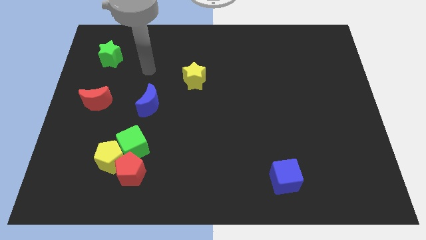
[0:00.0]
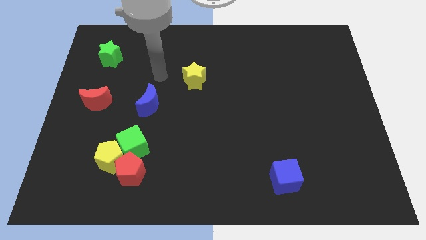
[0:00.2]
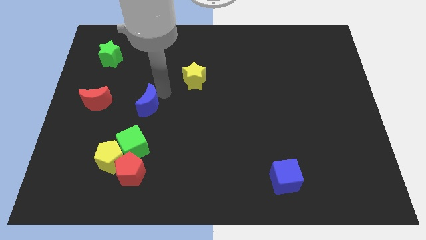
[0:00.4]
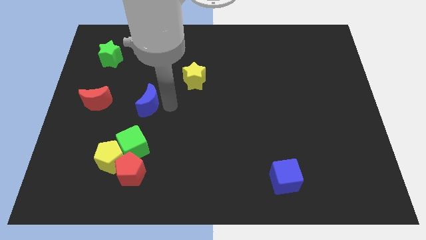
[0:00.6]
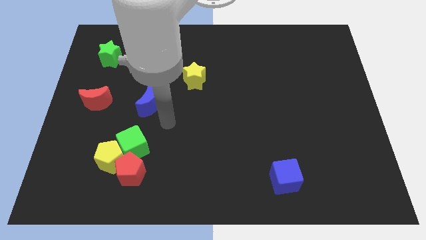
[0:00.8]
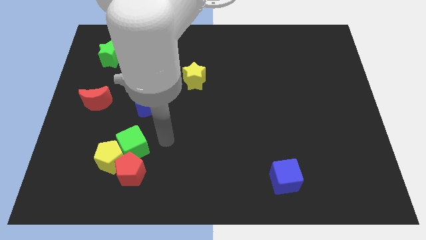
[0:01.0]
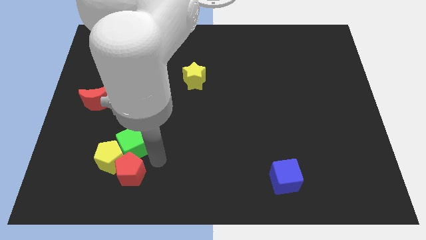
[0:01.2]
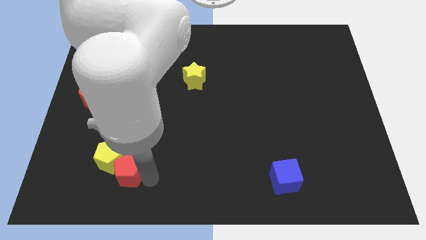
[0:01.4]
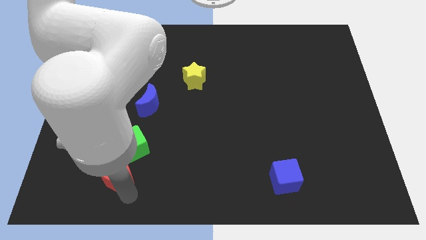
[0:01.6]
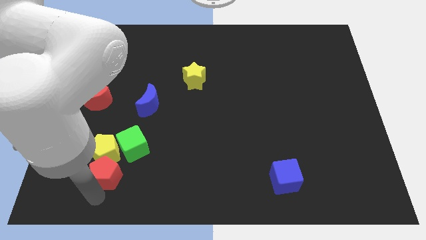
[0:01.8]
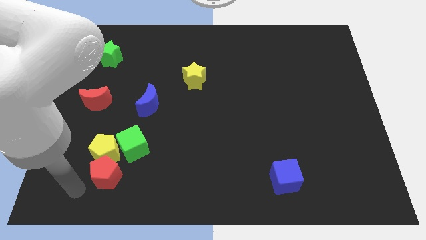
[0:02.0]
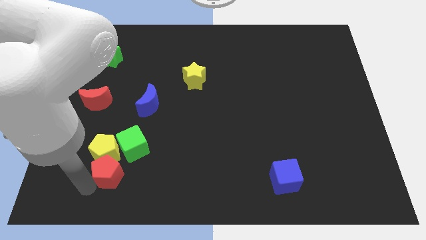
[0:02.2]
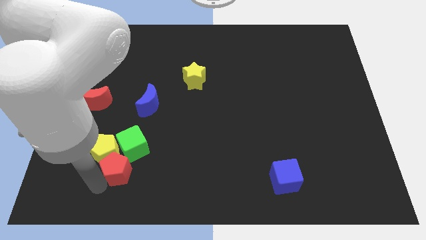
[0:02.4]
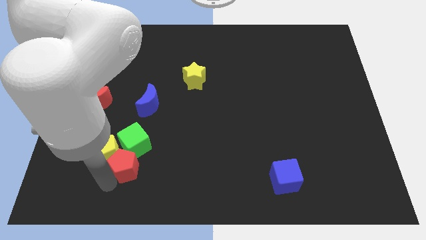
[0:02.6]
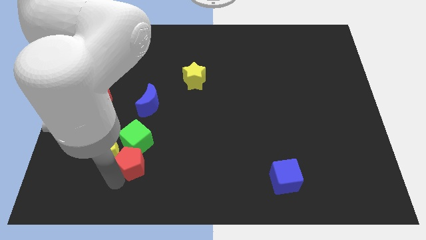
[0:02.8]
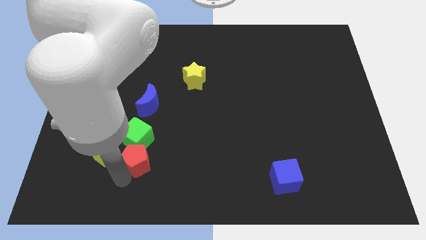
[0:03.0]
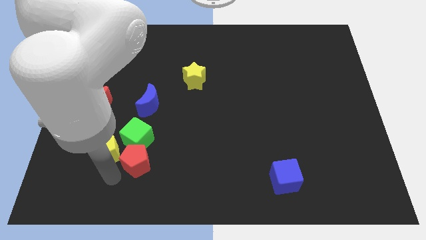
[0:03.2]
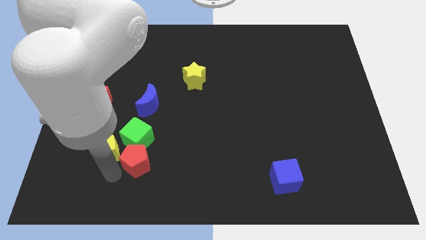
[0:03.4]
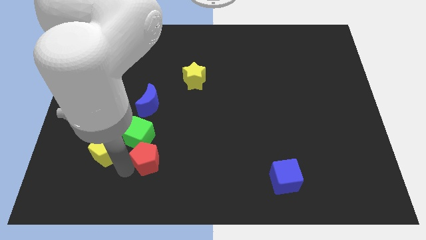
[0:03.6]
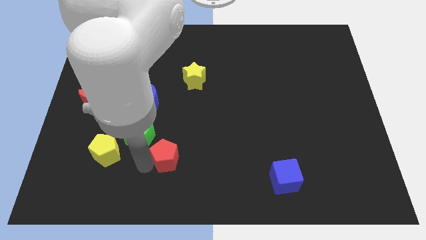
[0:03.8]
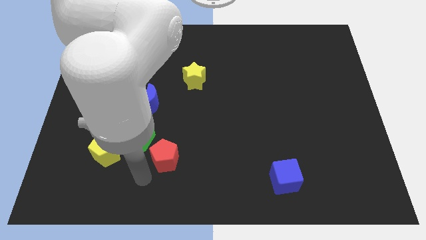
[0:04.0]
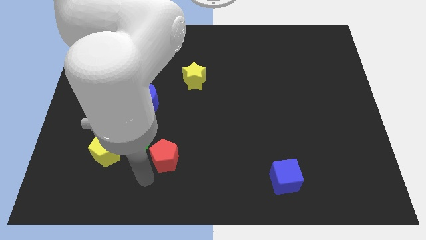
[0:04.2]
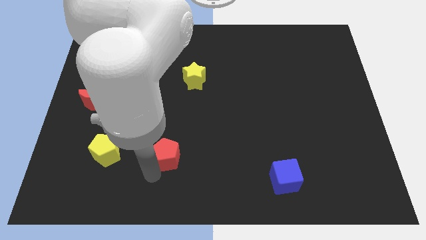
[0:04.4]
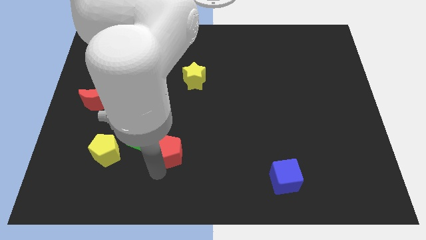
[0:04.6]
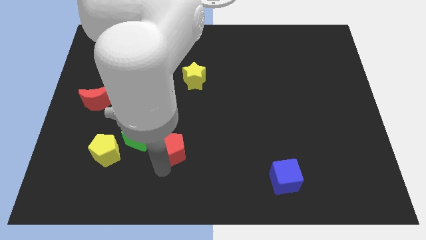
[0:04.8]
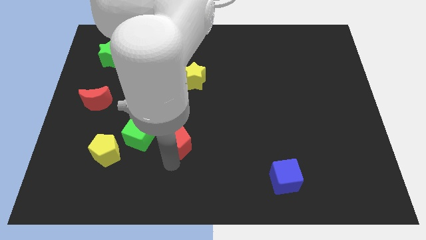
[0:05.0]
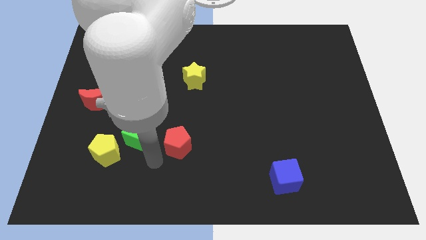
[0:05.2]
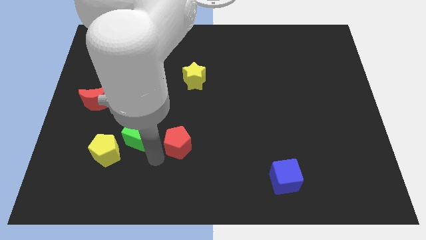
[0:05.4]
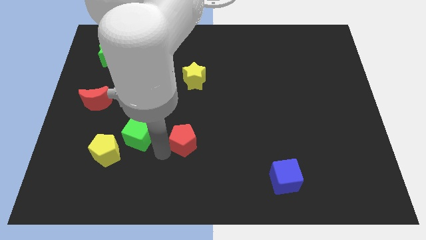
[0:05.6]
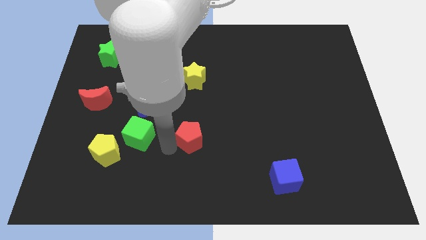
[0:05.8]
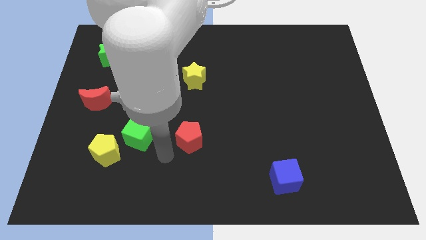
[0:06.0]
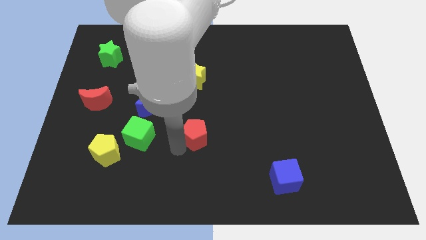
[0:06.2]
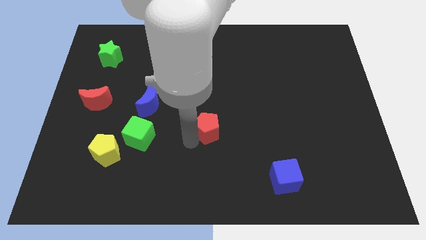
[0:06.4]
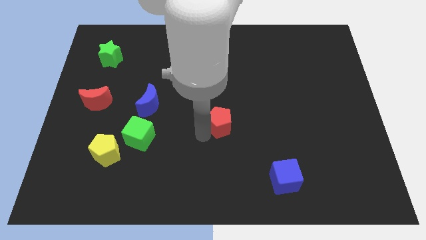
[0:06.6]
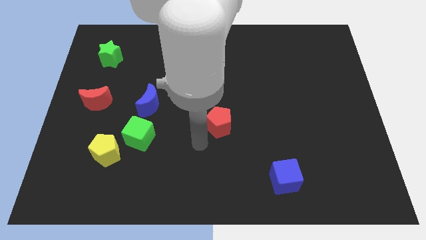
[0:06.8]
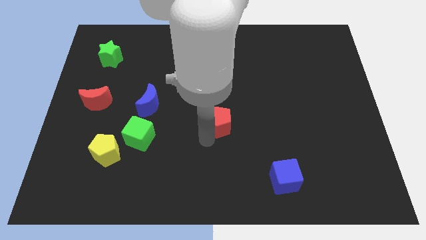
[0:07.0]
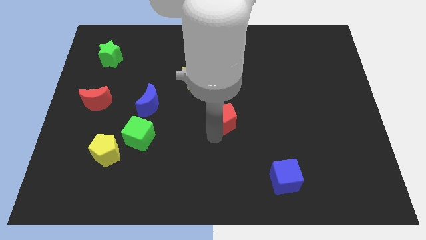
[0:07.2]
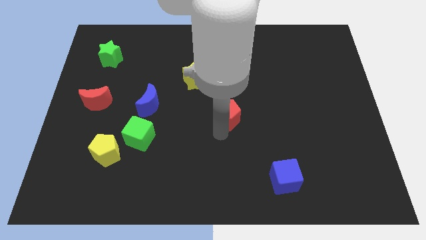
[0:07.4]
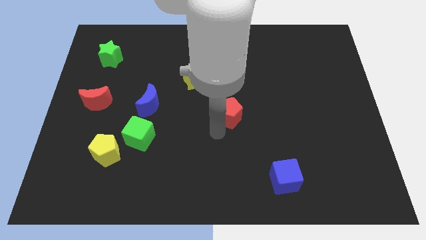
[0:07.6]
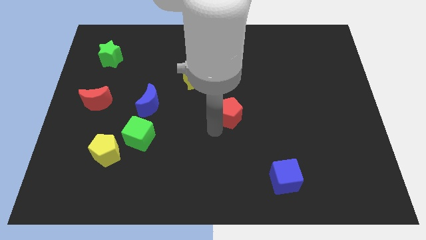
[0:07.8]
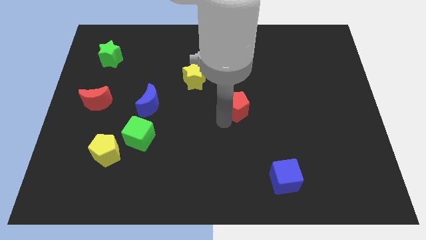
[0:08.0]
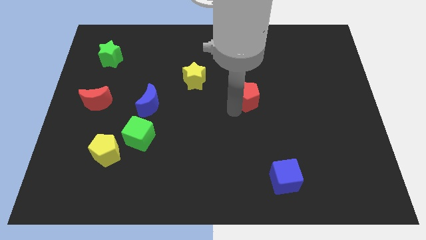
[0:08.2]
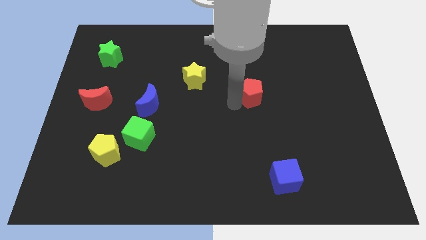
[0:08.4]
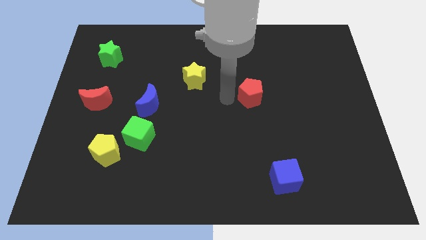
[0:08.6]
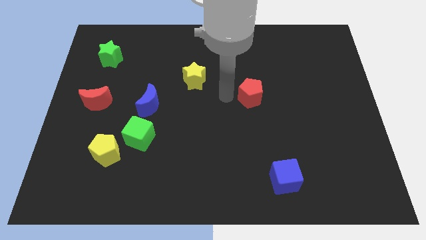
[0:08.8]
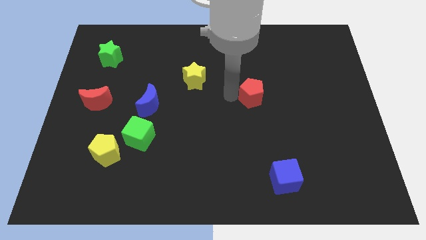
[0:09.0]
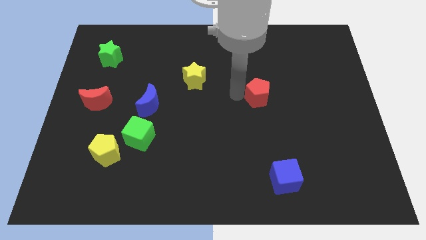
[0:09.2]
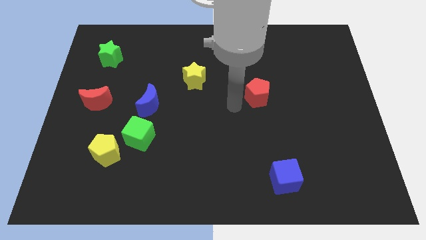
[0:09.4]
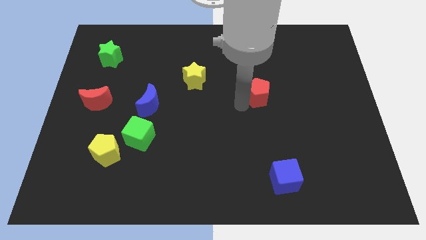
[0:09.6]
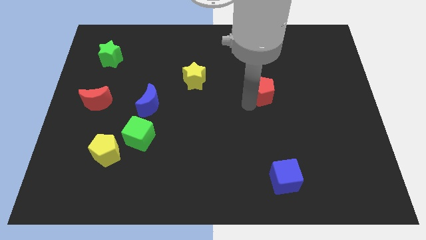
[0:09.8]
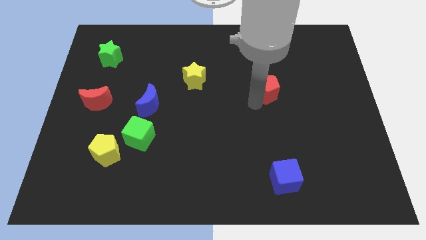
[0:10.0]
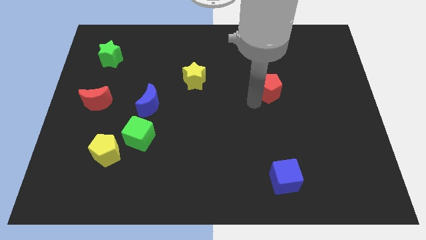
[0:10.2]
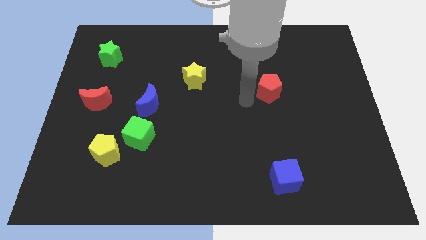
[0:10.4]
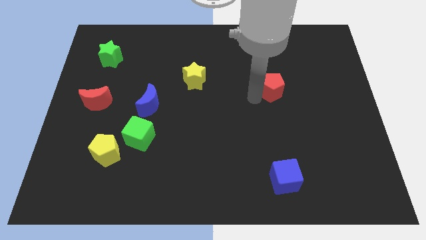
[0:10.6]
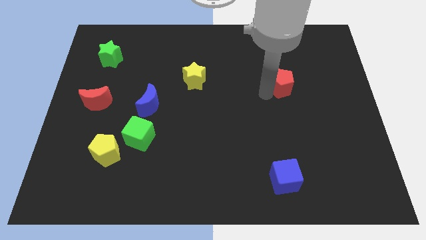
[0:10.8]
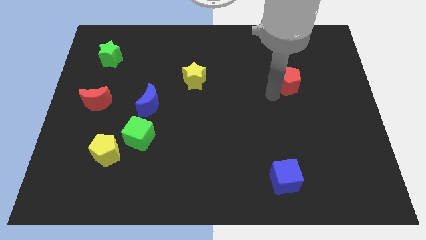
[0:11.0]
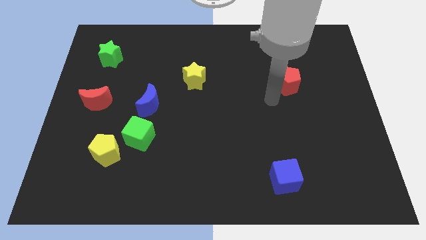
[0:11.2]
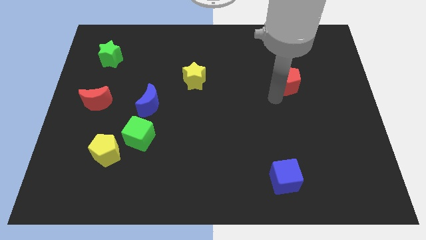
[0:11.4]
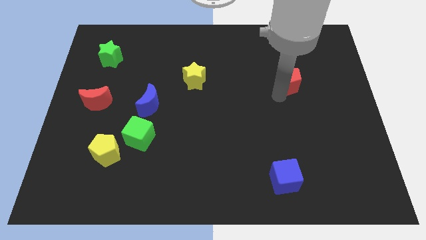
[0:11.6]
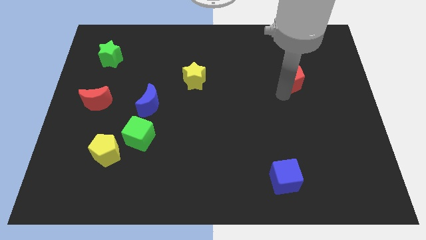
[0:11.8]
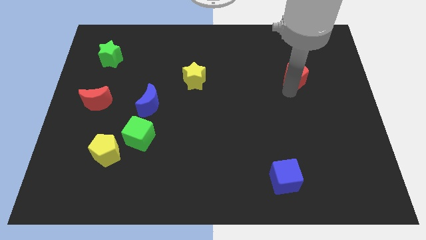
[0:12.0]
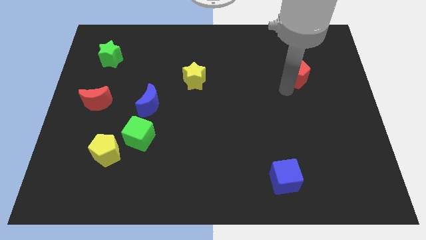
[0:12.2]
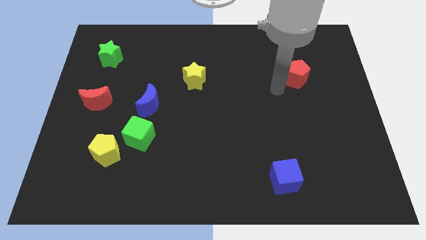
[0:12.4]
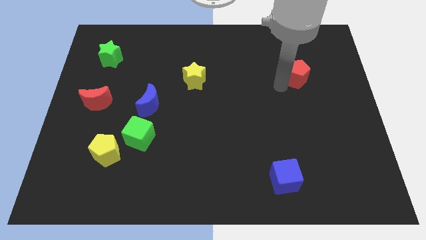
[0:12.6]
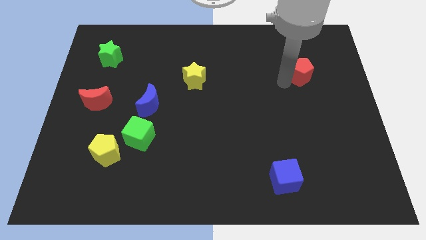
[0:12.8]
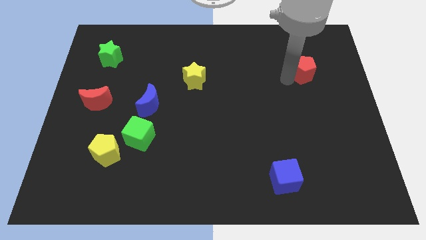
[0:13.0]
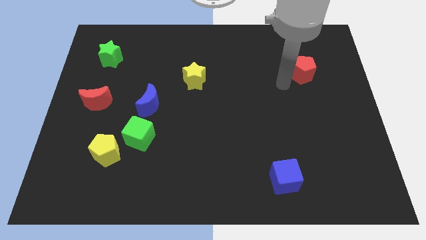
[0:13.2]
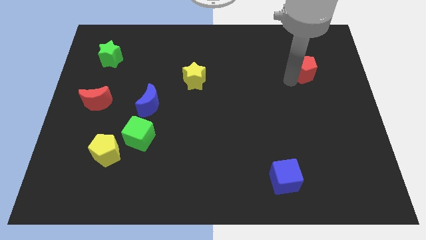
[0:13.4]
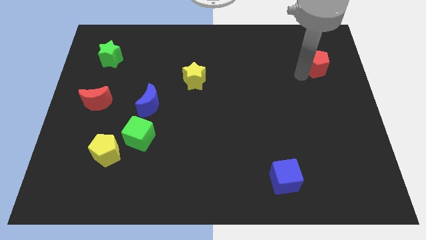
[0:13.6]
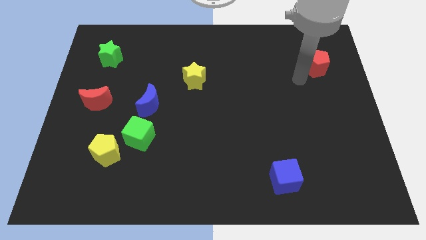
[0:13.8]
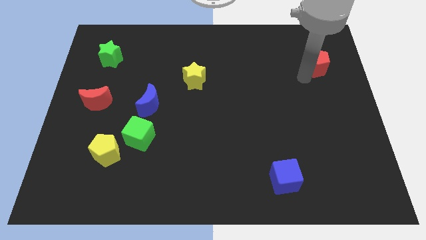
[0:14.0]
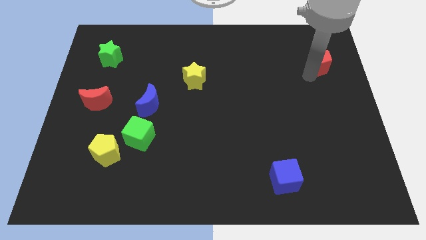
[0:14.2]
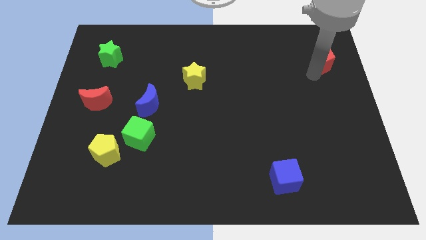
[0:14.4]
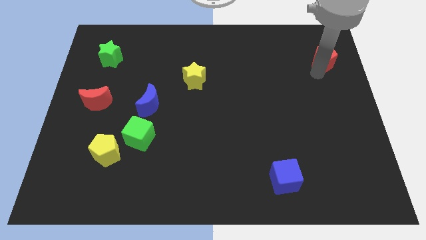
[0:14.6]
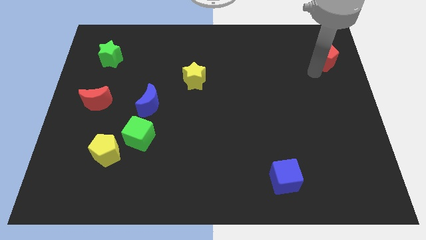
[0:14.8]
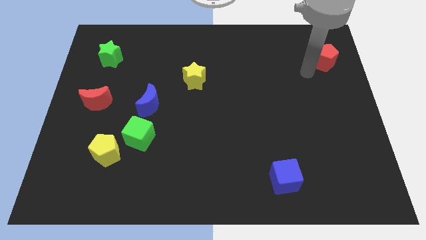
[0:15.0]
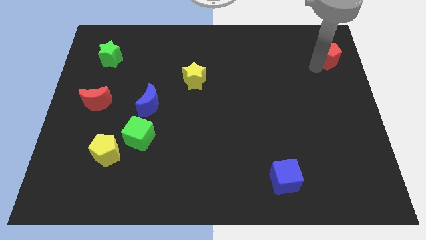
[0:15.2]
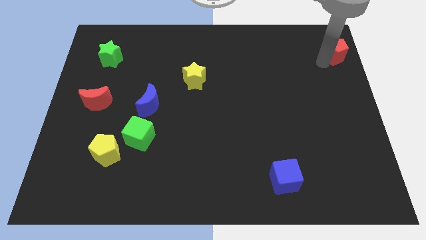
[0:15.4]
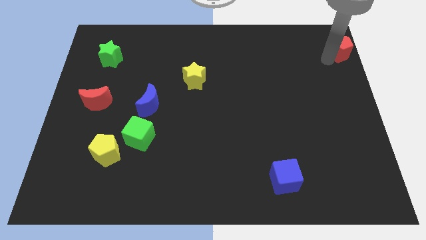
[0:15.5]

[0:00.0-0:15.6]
put the red pentagon to the top right corner
